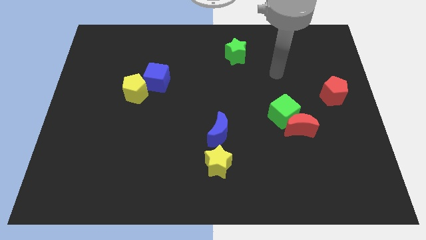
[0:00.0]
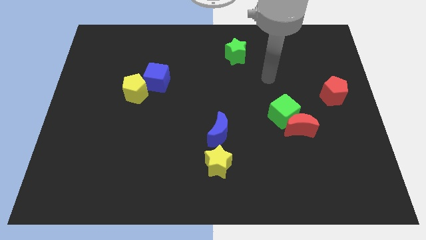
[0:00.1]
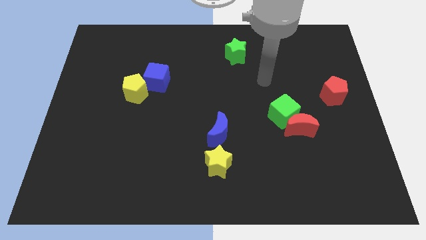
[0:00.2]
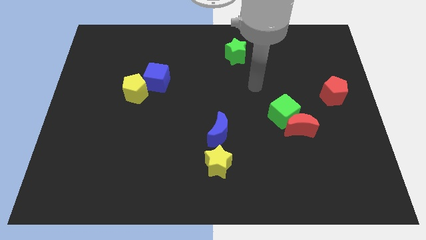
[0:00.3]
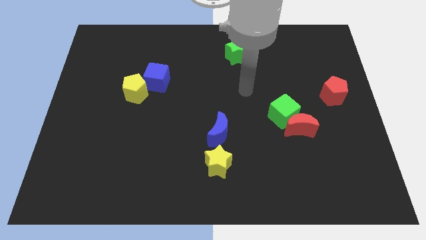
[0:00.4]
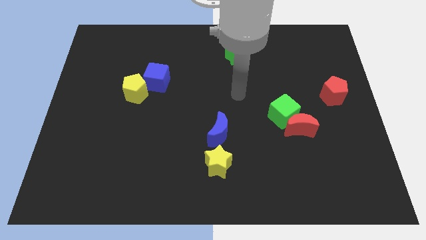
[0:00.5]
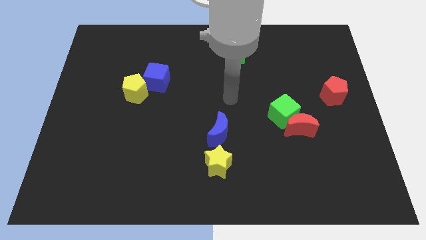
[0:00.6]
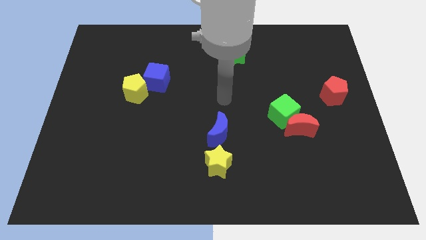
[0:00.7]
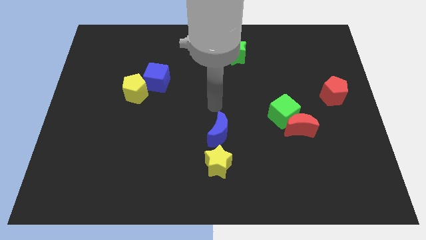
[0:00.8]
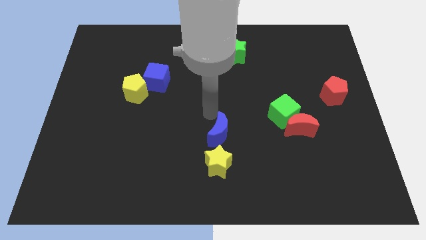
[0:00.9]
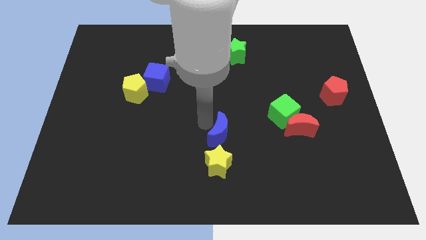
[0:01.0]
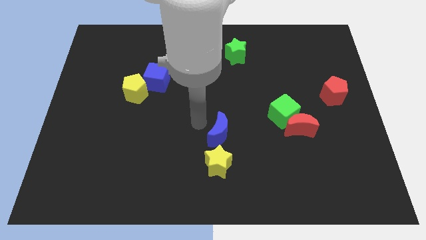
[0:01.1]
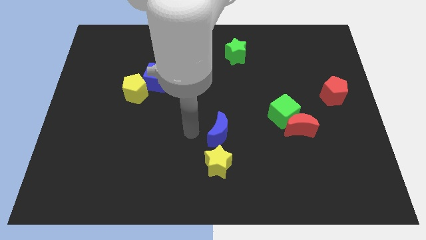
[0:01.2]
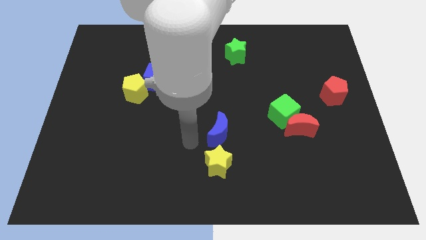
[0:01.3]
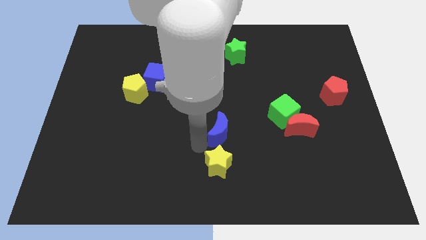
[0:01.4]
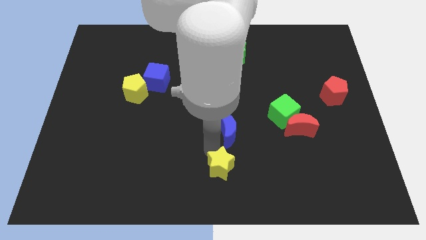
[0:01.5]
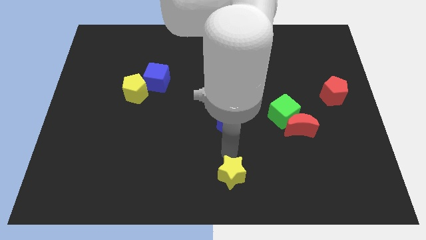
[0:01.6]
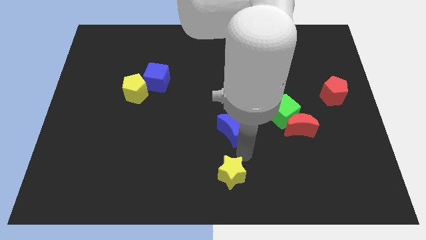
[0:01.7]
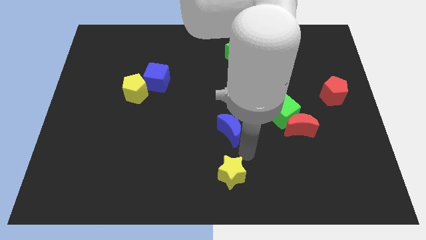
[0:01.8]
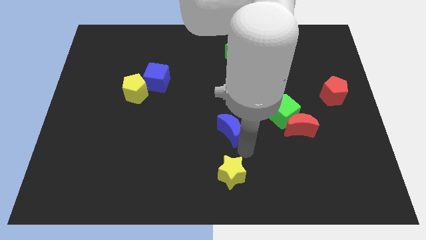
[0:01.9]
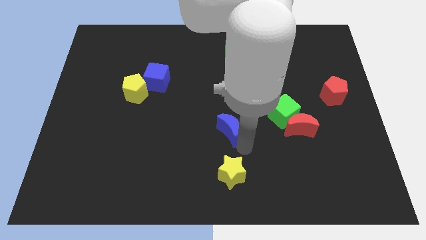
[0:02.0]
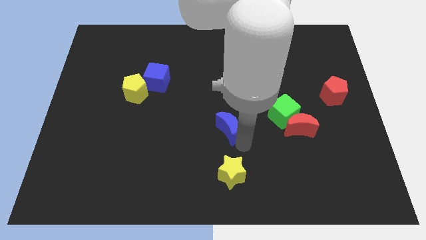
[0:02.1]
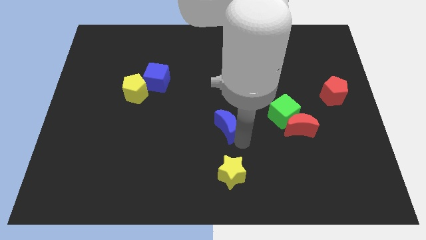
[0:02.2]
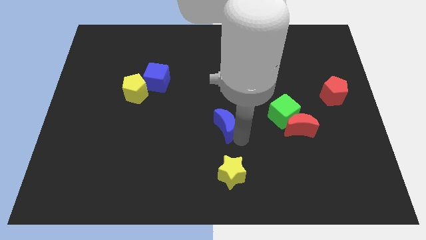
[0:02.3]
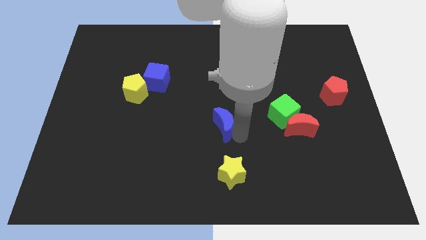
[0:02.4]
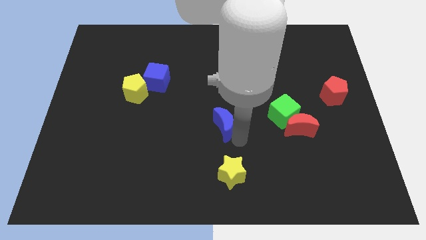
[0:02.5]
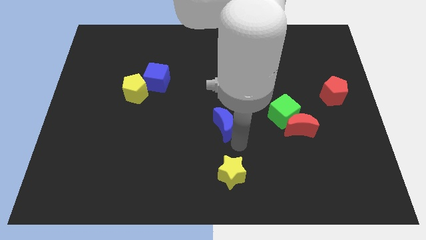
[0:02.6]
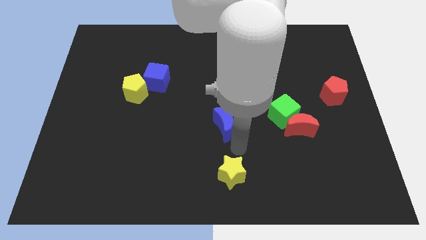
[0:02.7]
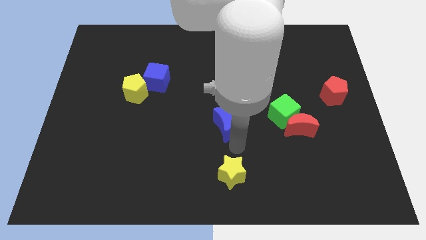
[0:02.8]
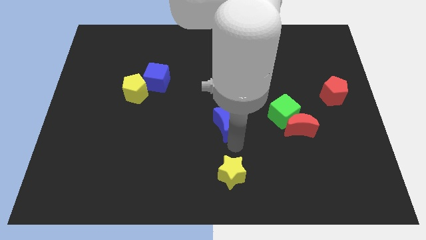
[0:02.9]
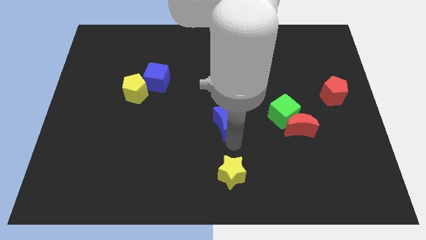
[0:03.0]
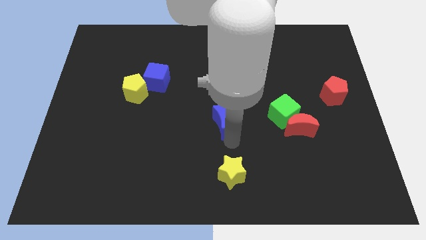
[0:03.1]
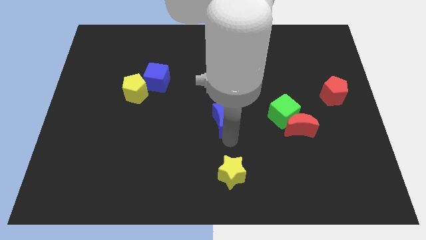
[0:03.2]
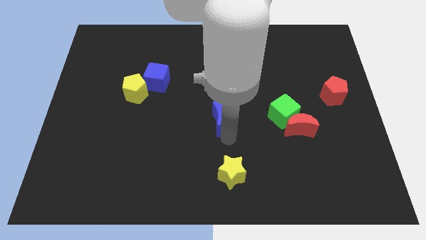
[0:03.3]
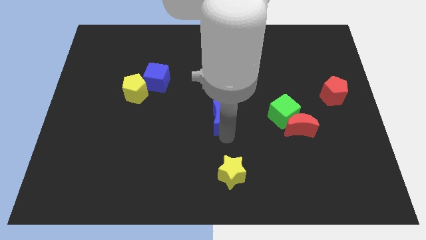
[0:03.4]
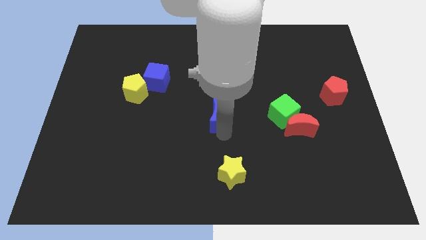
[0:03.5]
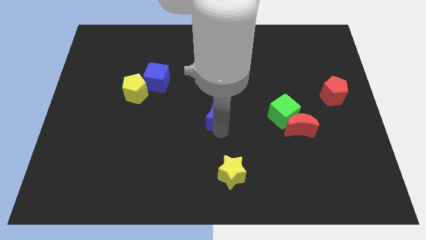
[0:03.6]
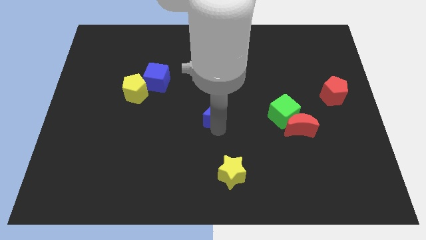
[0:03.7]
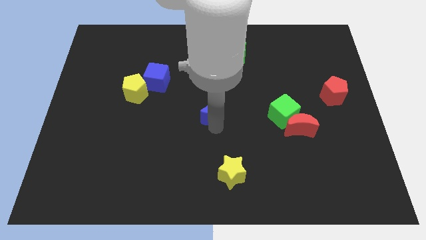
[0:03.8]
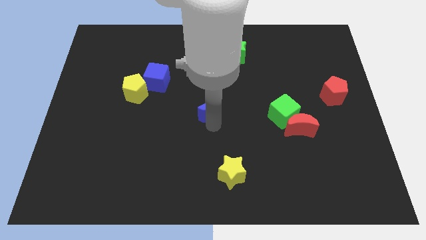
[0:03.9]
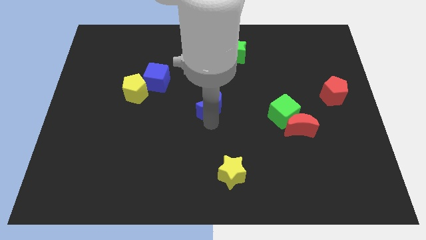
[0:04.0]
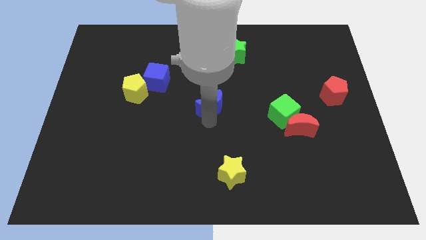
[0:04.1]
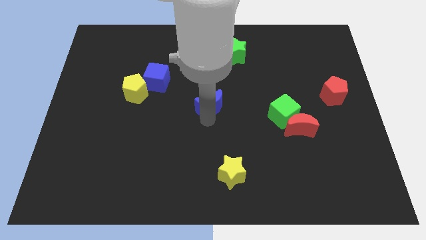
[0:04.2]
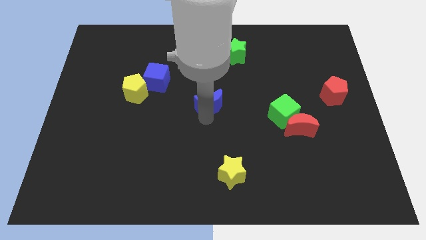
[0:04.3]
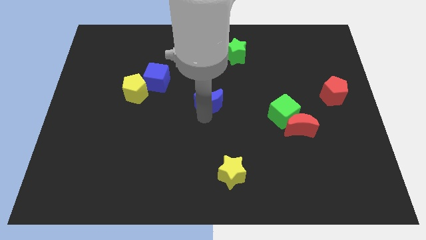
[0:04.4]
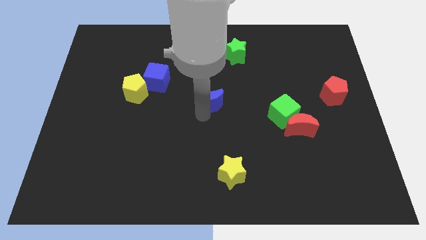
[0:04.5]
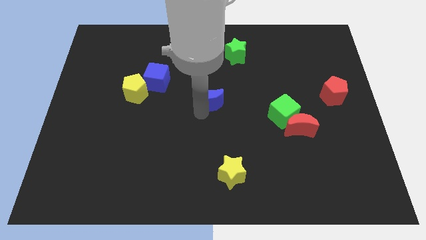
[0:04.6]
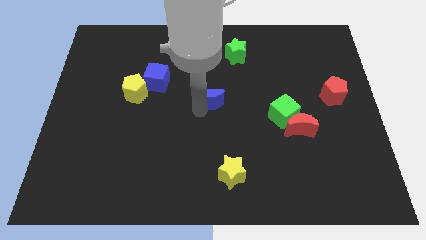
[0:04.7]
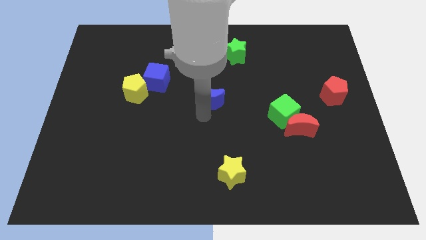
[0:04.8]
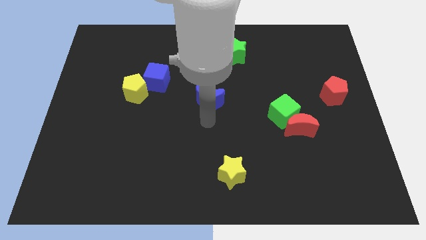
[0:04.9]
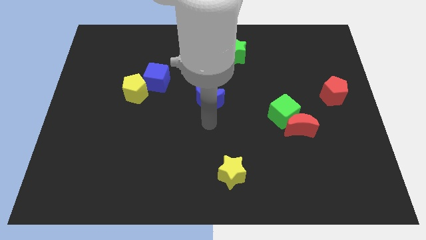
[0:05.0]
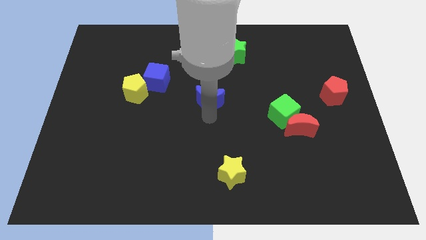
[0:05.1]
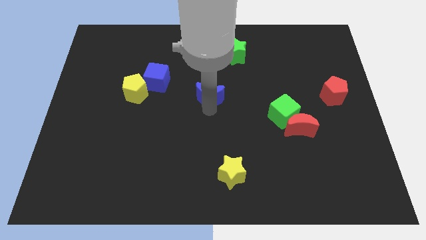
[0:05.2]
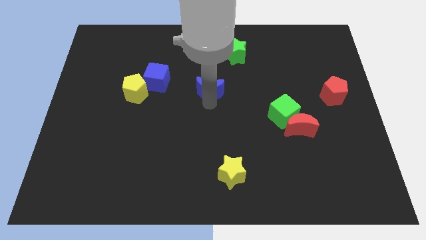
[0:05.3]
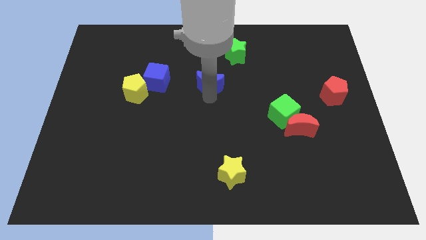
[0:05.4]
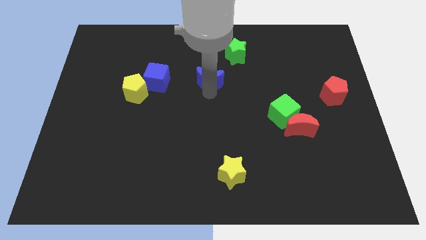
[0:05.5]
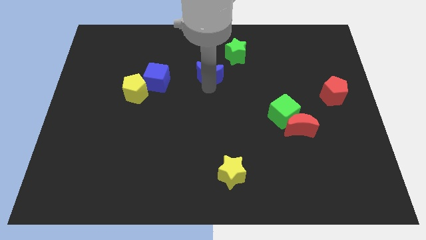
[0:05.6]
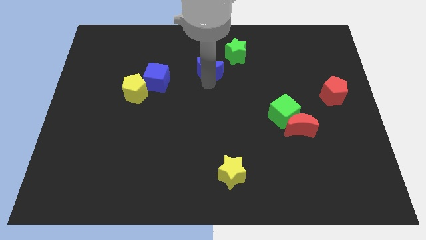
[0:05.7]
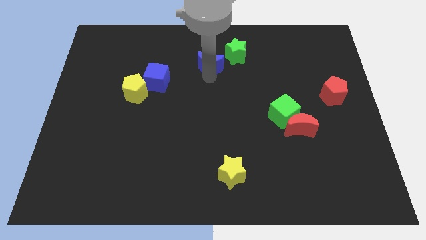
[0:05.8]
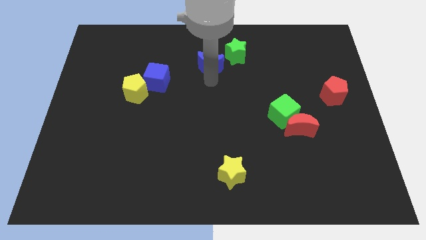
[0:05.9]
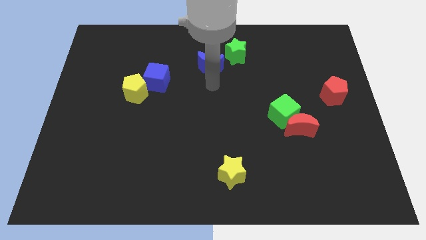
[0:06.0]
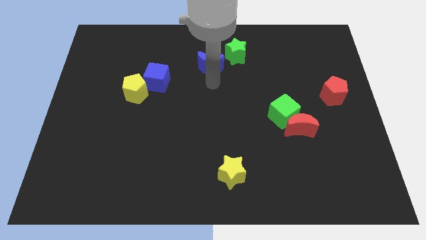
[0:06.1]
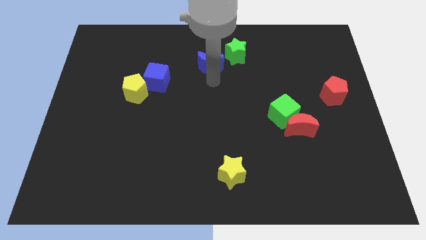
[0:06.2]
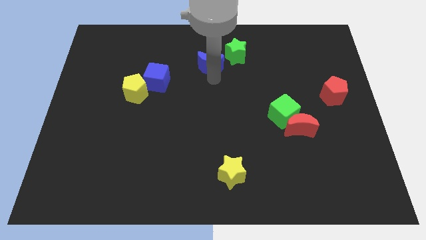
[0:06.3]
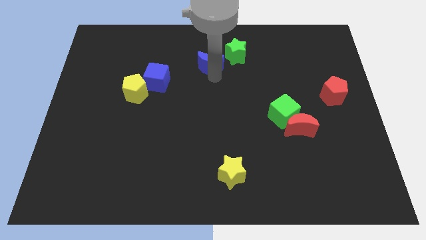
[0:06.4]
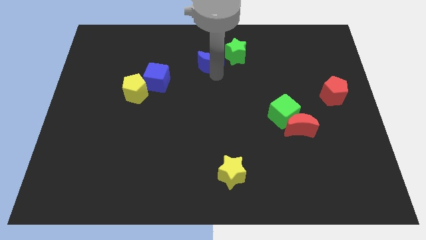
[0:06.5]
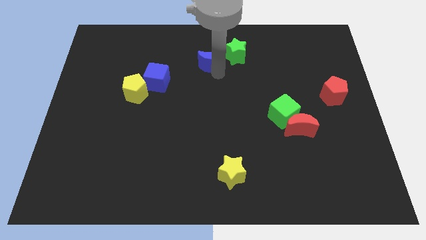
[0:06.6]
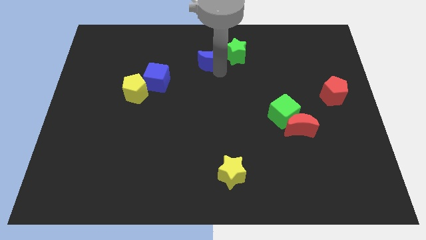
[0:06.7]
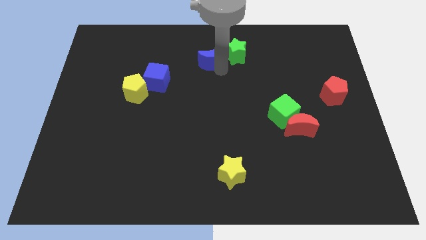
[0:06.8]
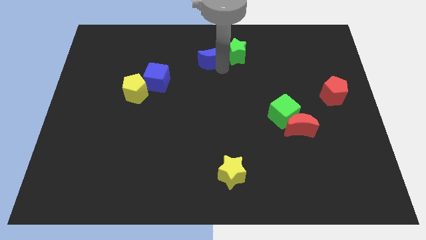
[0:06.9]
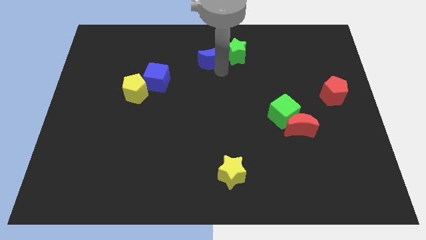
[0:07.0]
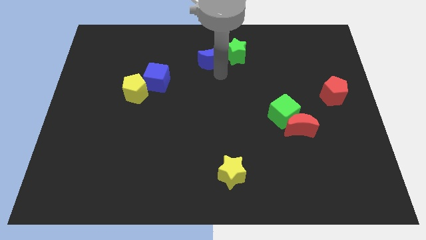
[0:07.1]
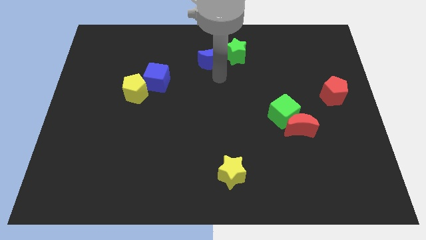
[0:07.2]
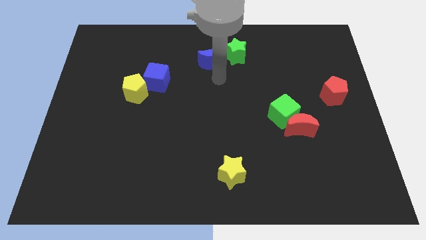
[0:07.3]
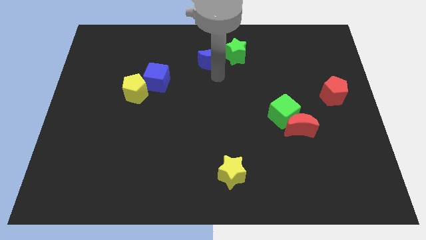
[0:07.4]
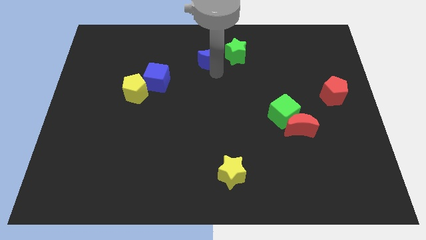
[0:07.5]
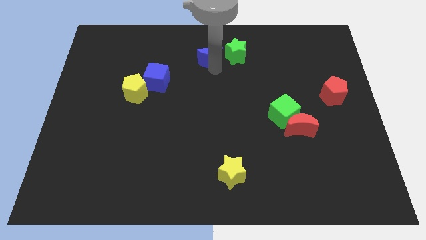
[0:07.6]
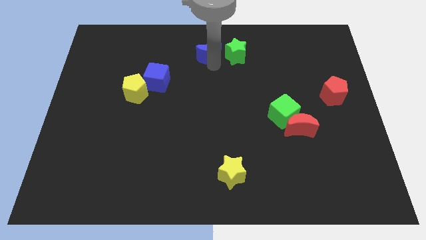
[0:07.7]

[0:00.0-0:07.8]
move the blue moon to the top side
